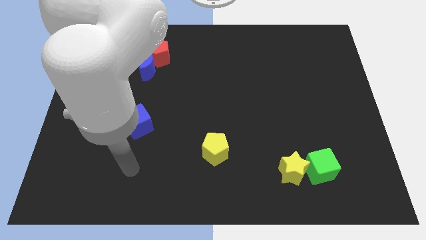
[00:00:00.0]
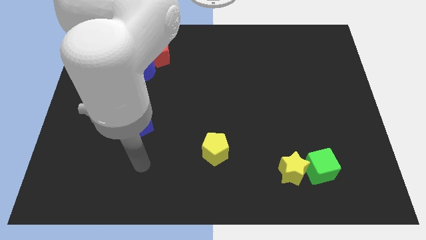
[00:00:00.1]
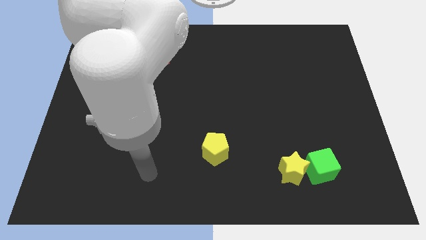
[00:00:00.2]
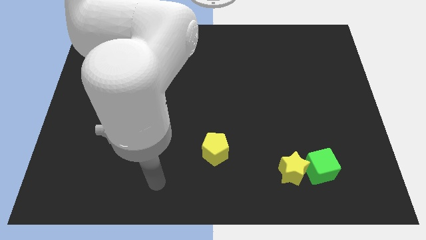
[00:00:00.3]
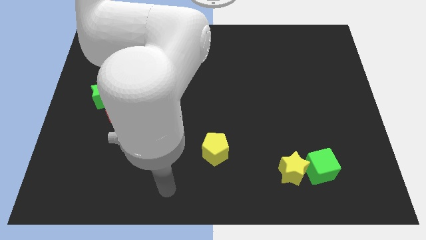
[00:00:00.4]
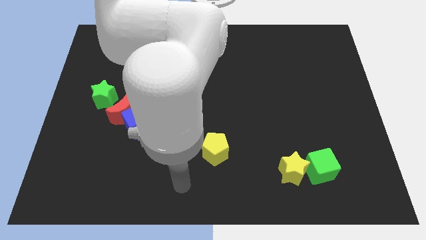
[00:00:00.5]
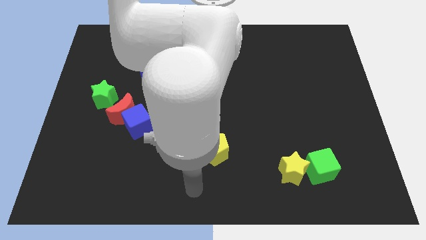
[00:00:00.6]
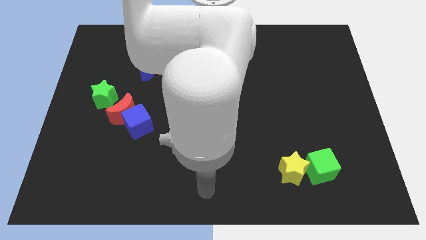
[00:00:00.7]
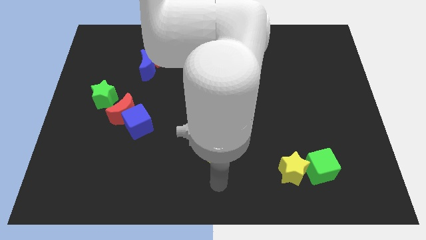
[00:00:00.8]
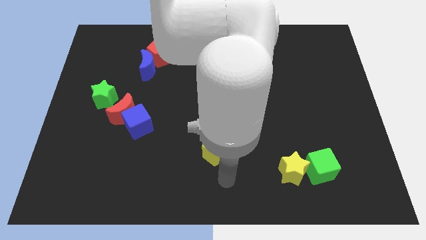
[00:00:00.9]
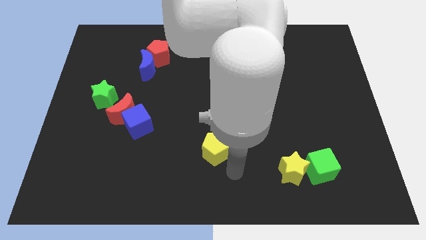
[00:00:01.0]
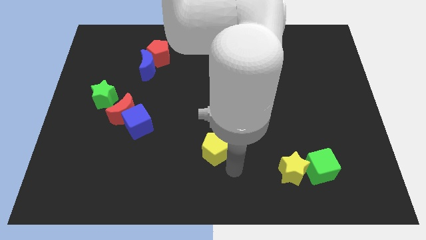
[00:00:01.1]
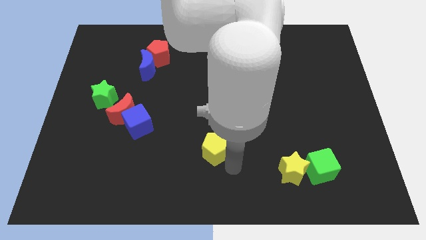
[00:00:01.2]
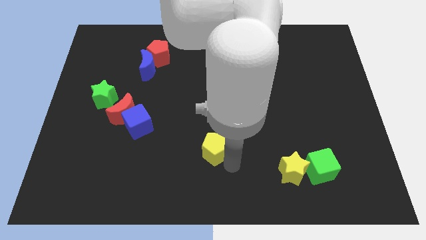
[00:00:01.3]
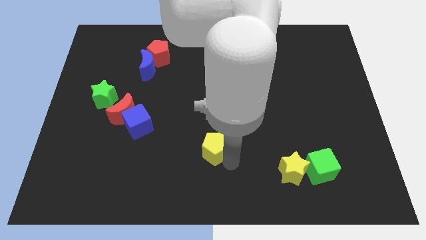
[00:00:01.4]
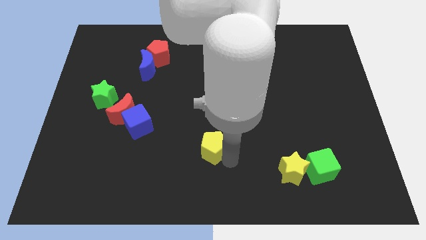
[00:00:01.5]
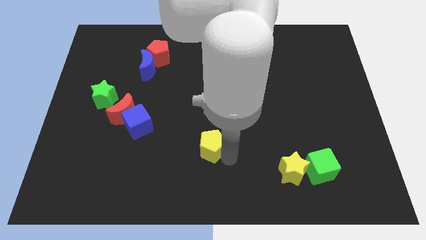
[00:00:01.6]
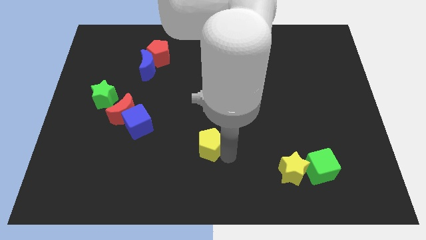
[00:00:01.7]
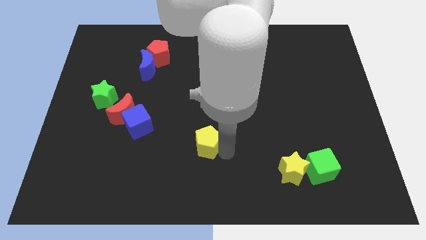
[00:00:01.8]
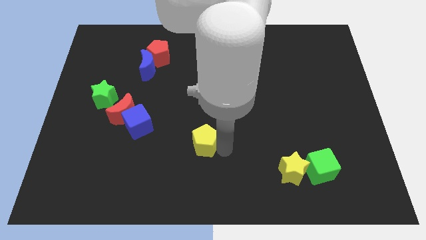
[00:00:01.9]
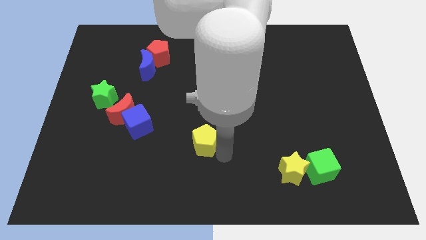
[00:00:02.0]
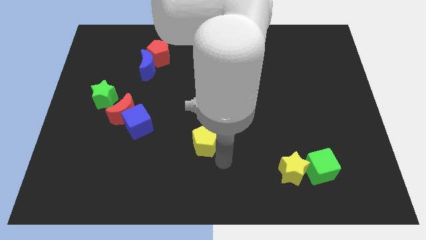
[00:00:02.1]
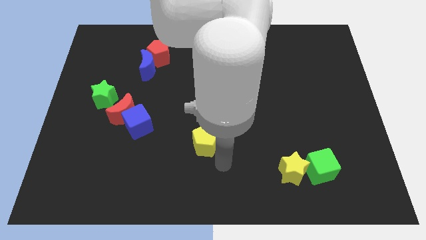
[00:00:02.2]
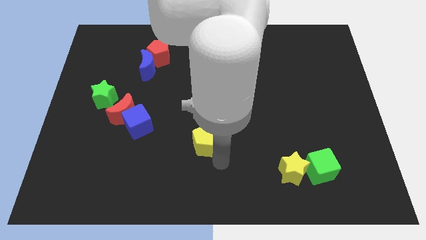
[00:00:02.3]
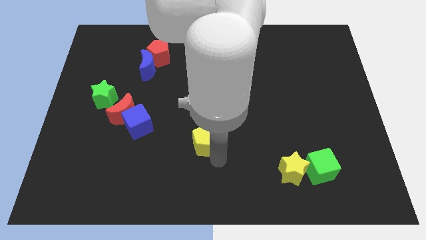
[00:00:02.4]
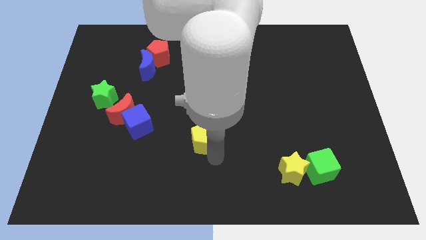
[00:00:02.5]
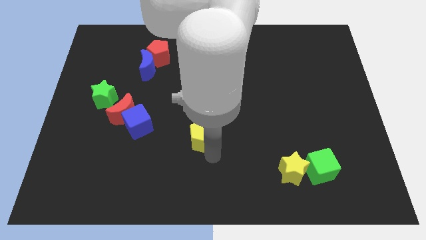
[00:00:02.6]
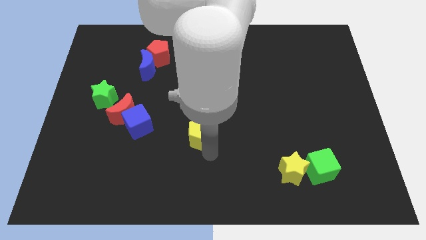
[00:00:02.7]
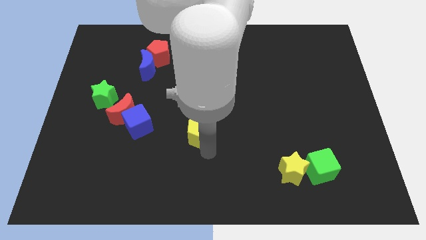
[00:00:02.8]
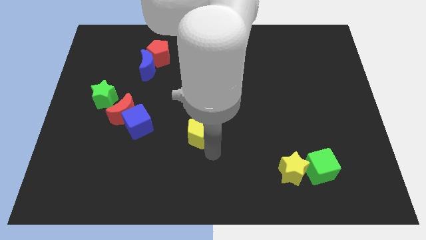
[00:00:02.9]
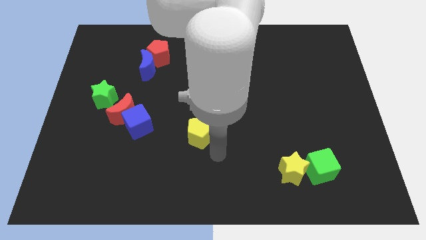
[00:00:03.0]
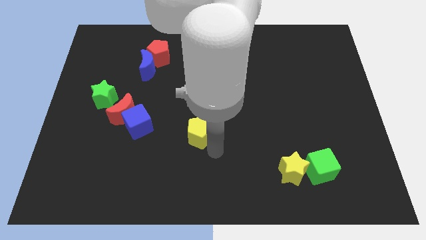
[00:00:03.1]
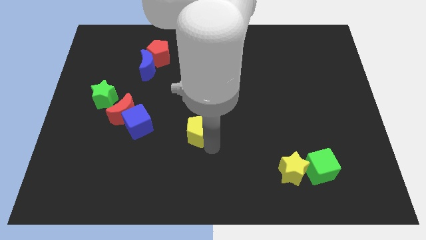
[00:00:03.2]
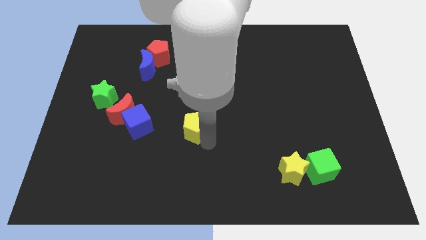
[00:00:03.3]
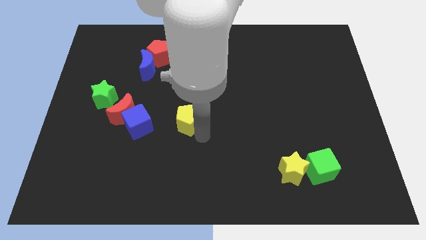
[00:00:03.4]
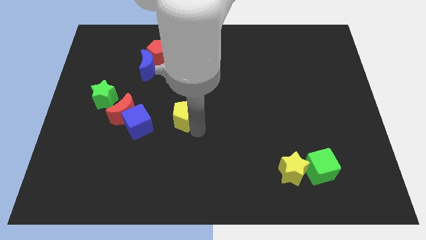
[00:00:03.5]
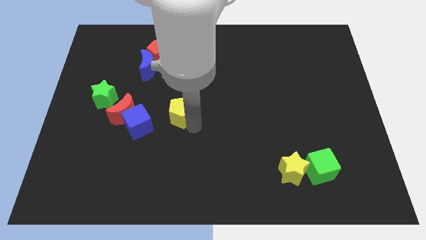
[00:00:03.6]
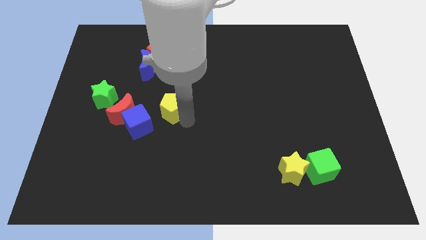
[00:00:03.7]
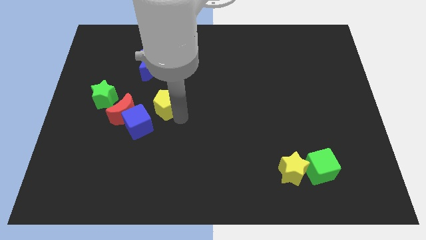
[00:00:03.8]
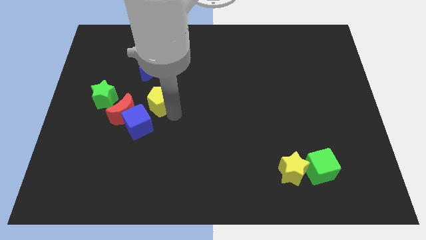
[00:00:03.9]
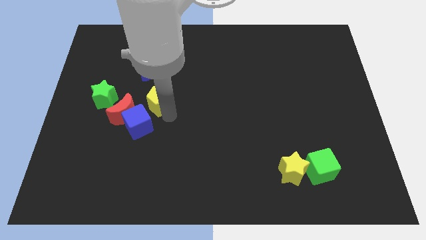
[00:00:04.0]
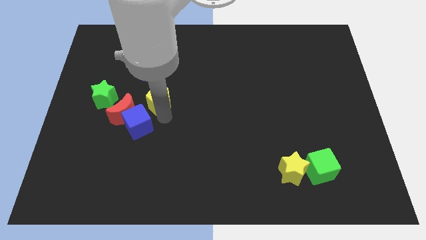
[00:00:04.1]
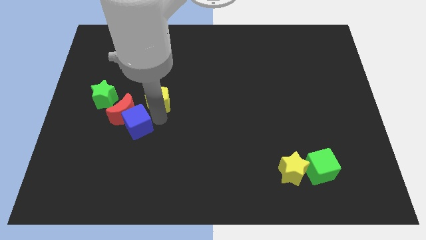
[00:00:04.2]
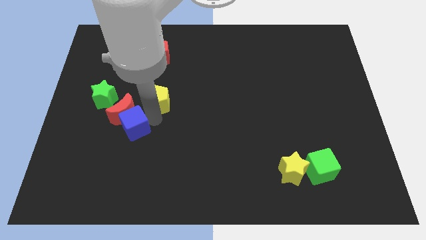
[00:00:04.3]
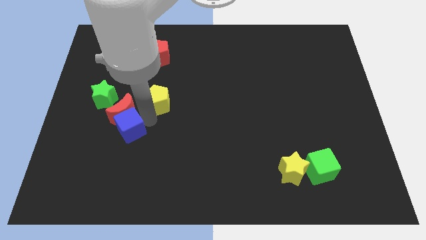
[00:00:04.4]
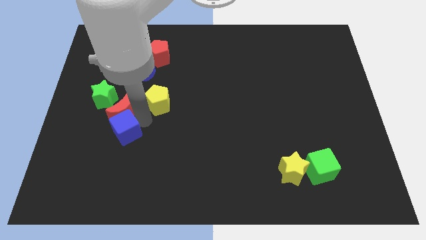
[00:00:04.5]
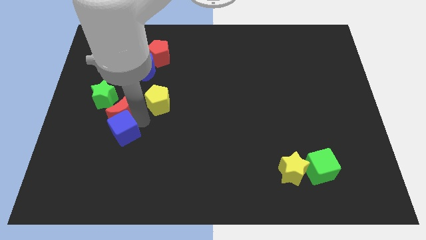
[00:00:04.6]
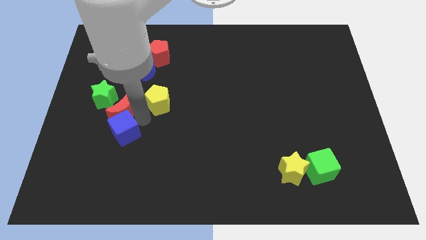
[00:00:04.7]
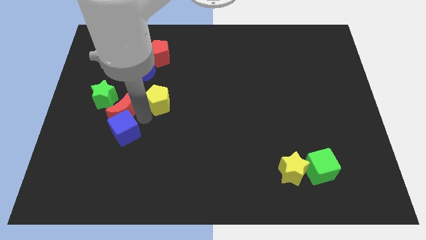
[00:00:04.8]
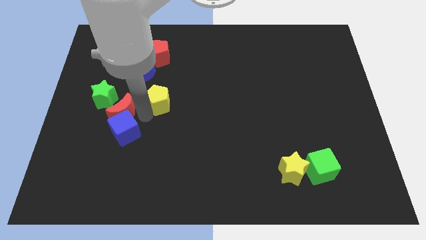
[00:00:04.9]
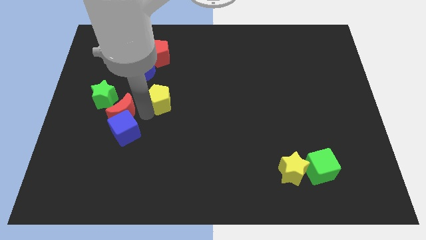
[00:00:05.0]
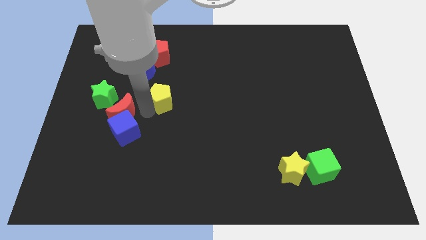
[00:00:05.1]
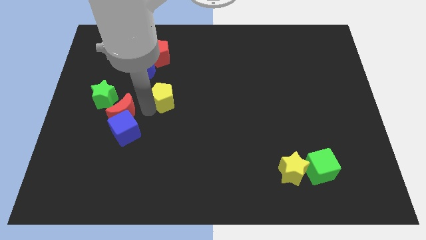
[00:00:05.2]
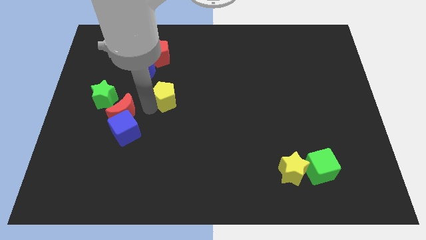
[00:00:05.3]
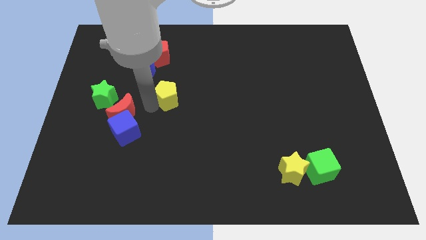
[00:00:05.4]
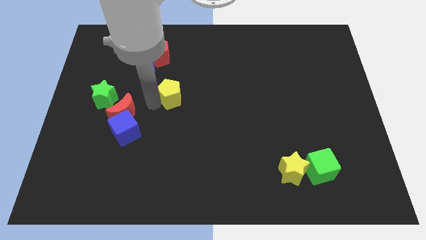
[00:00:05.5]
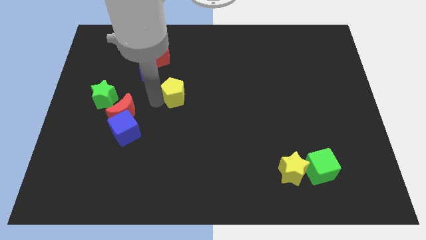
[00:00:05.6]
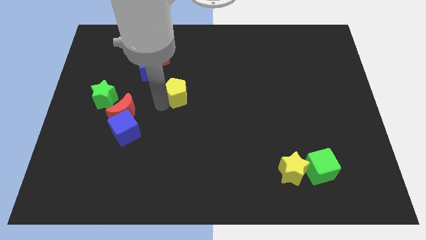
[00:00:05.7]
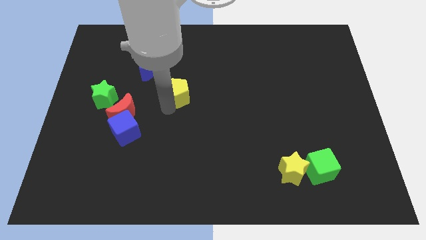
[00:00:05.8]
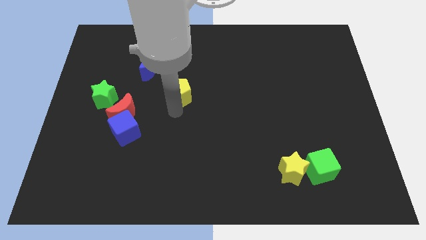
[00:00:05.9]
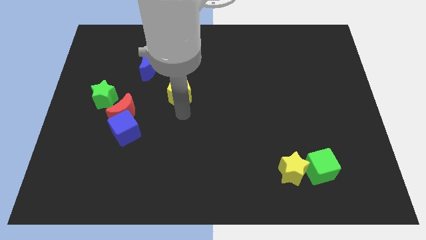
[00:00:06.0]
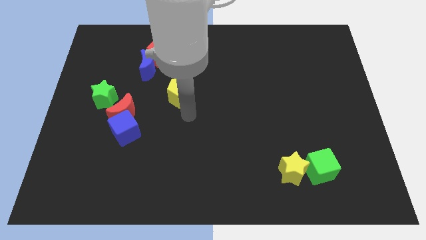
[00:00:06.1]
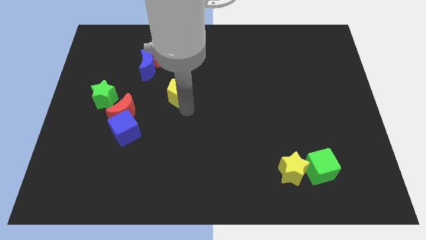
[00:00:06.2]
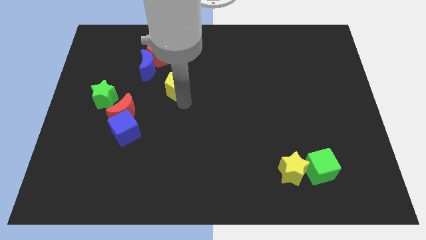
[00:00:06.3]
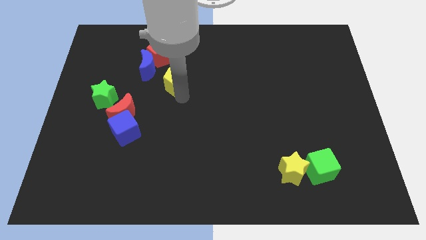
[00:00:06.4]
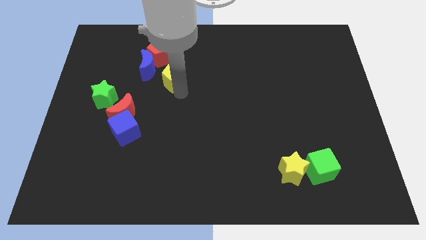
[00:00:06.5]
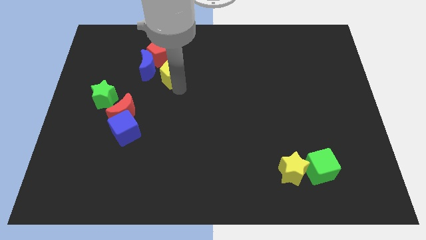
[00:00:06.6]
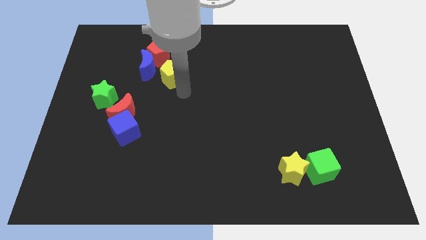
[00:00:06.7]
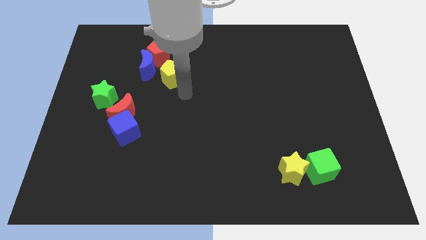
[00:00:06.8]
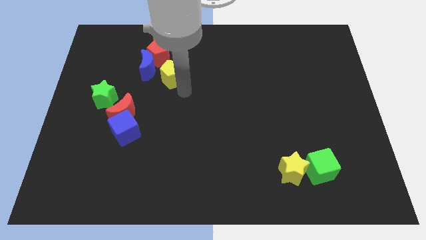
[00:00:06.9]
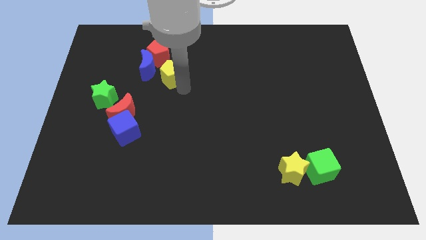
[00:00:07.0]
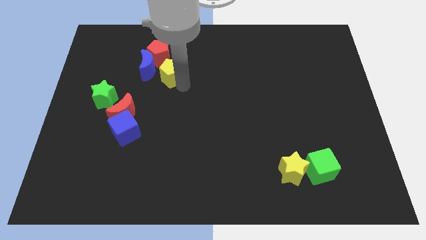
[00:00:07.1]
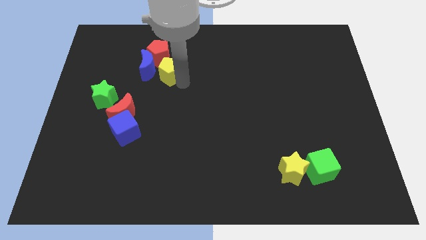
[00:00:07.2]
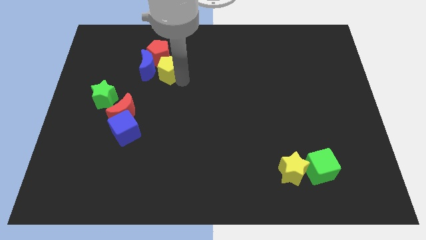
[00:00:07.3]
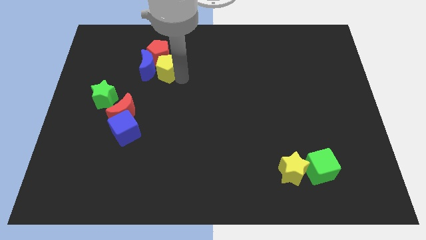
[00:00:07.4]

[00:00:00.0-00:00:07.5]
slide the yellow pentagon close to the red pentagon
